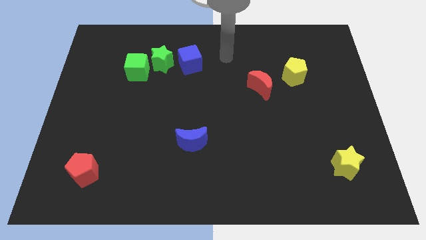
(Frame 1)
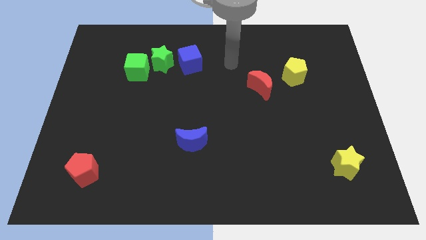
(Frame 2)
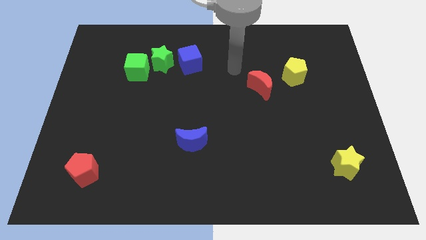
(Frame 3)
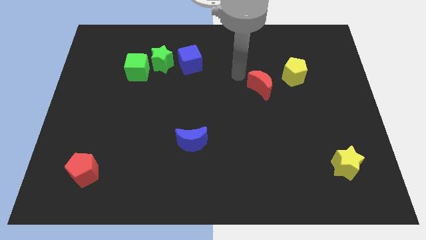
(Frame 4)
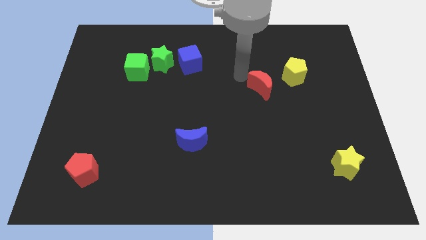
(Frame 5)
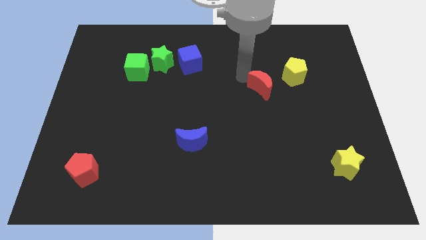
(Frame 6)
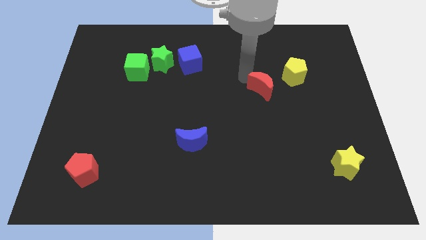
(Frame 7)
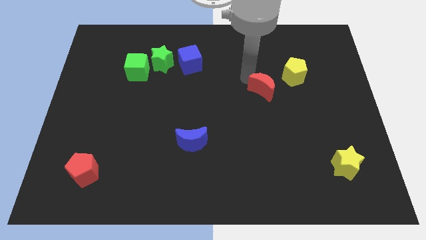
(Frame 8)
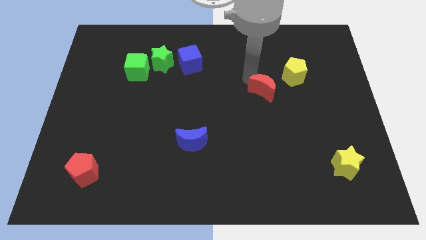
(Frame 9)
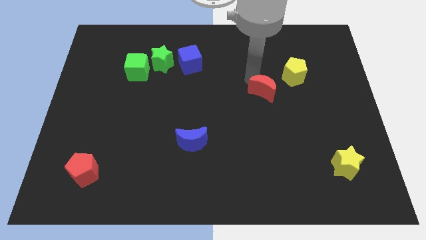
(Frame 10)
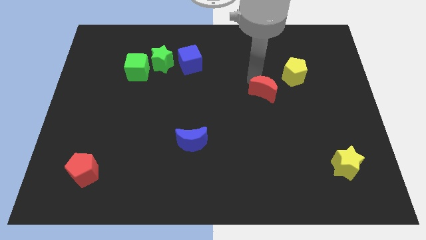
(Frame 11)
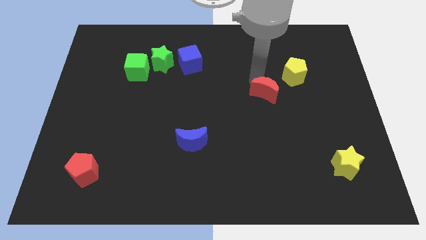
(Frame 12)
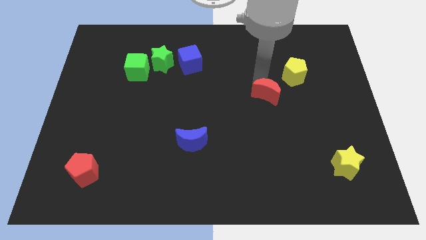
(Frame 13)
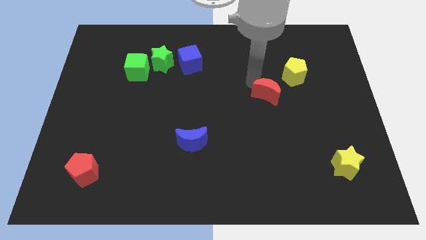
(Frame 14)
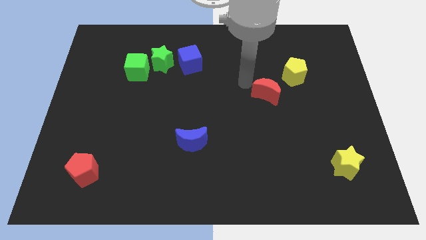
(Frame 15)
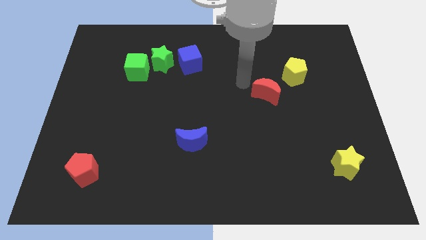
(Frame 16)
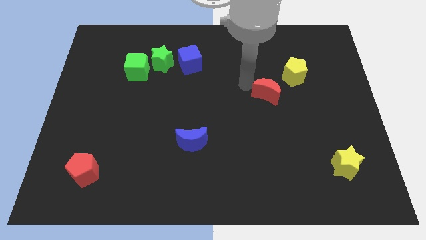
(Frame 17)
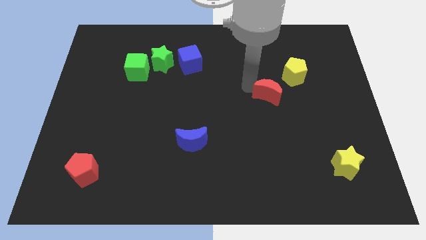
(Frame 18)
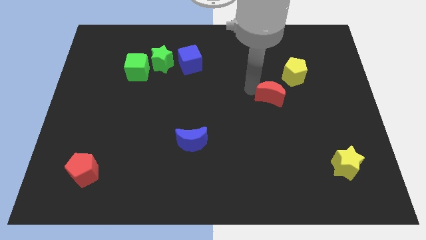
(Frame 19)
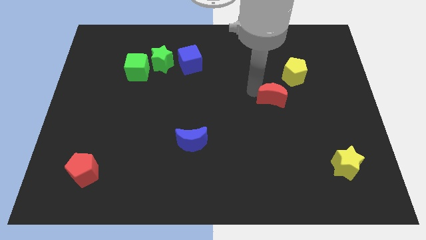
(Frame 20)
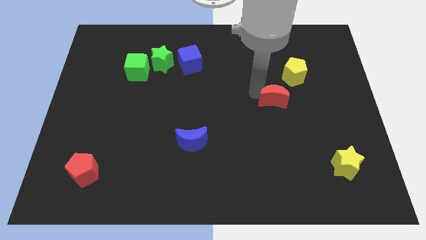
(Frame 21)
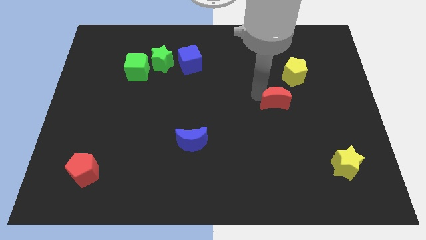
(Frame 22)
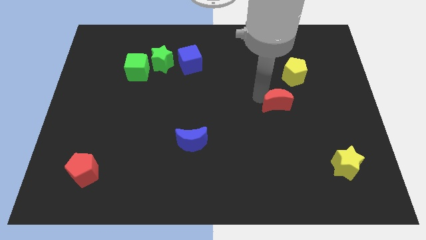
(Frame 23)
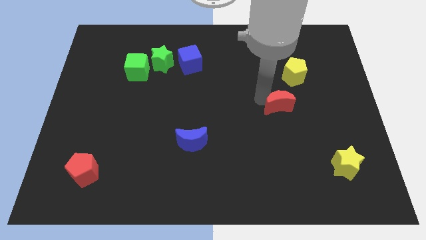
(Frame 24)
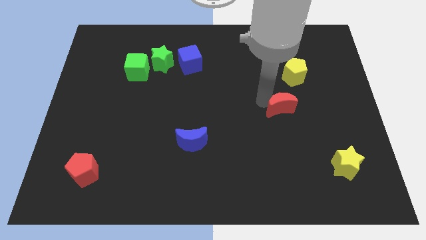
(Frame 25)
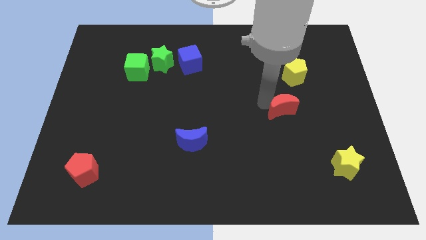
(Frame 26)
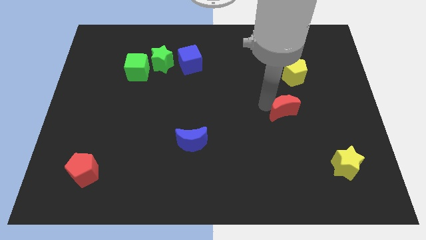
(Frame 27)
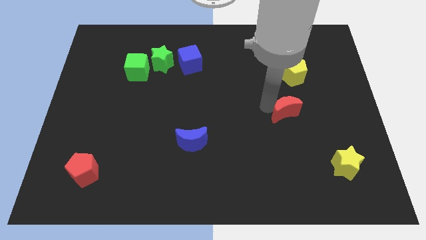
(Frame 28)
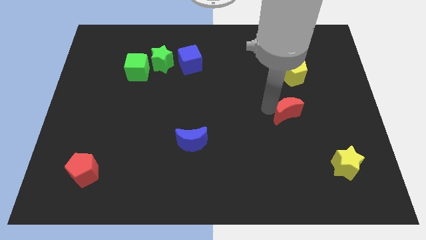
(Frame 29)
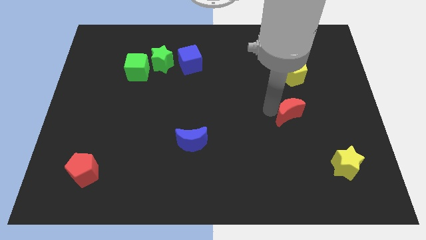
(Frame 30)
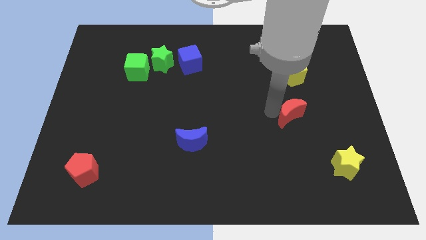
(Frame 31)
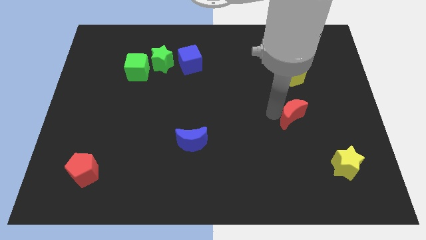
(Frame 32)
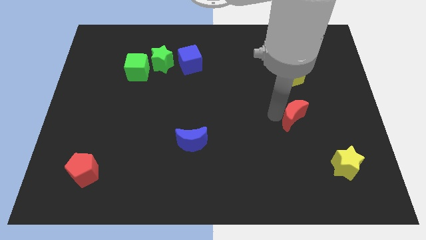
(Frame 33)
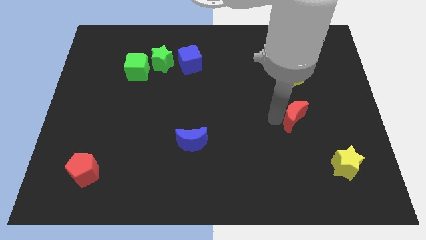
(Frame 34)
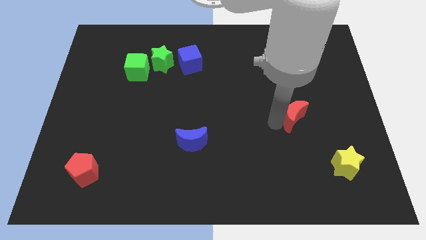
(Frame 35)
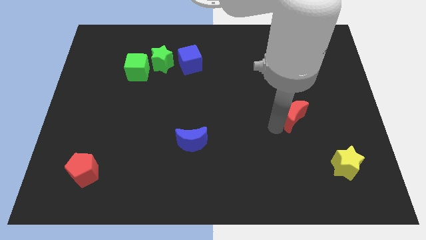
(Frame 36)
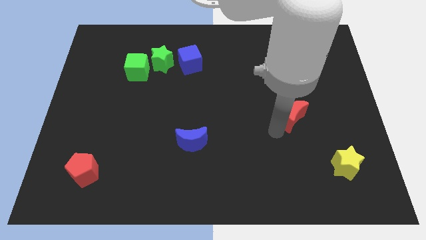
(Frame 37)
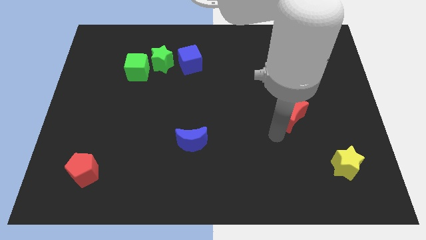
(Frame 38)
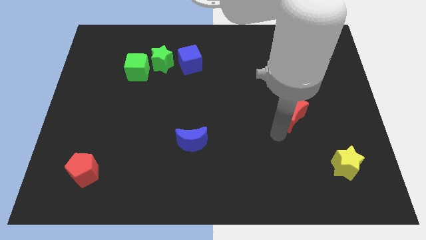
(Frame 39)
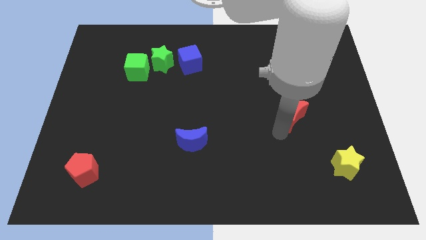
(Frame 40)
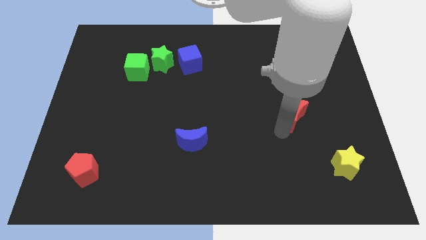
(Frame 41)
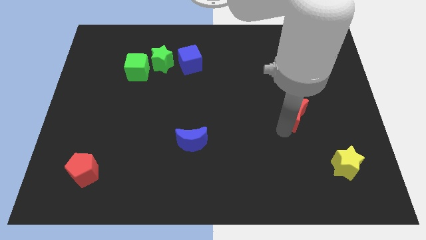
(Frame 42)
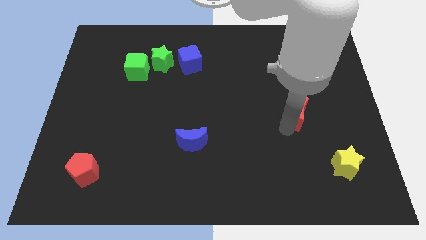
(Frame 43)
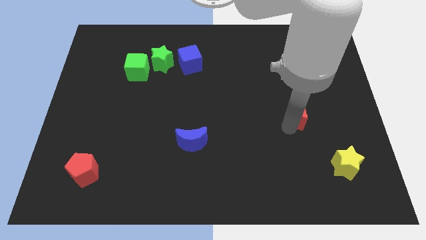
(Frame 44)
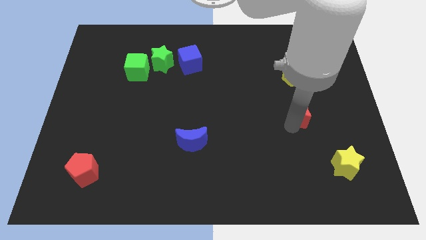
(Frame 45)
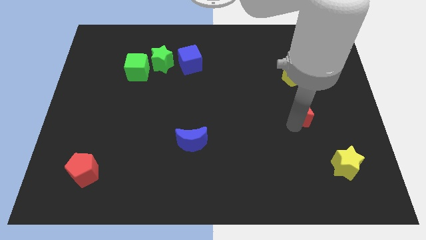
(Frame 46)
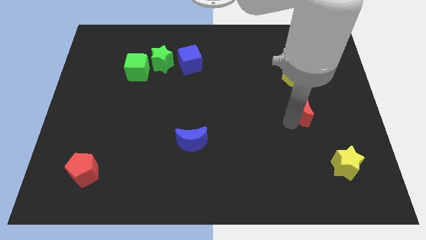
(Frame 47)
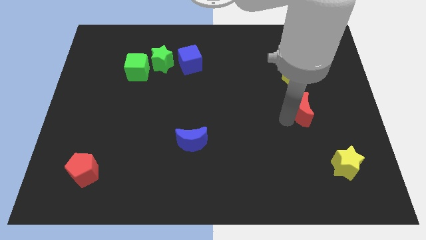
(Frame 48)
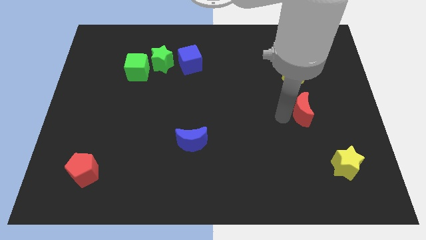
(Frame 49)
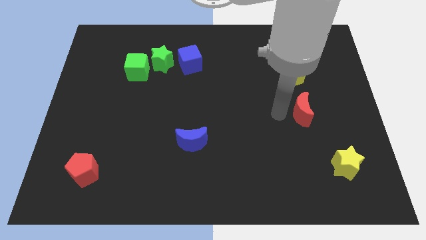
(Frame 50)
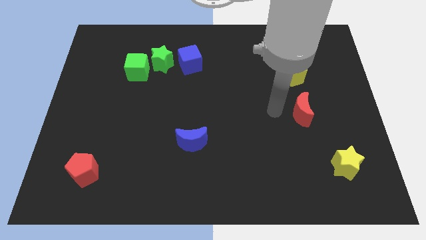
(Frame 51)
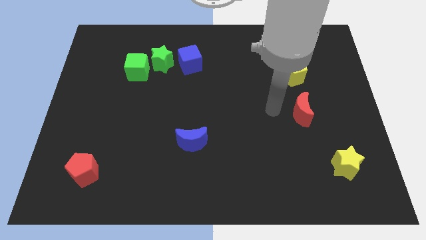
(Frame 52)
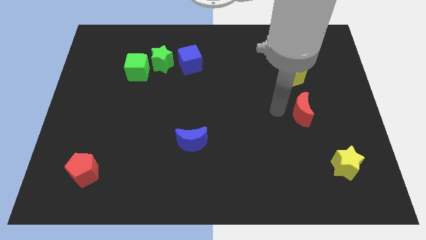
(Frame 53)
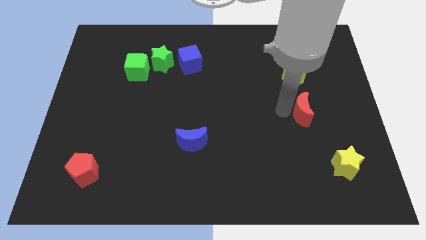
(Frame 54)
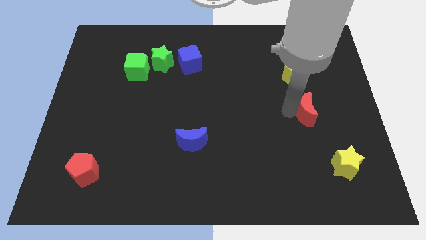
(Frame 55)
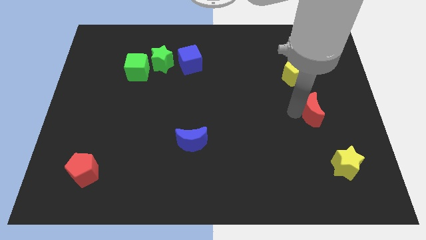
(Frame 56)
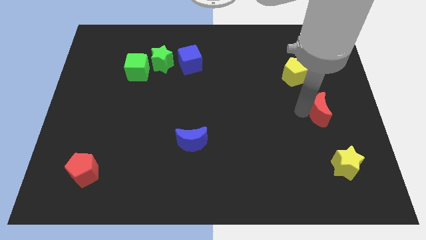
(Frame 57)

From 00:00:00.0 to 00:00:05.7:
push the red moon above the yellow star

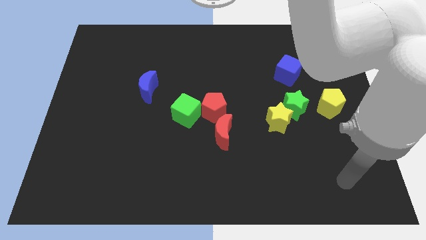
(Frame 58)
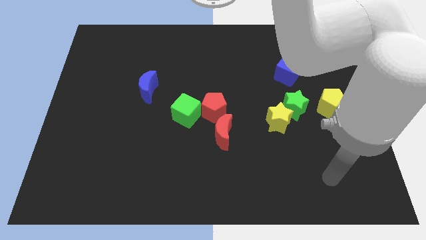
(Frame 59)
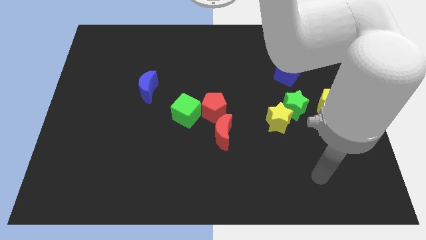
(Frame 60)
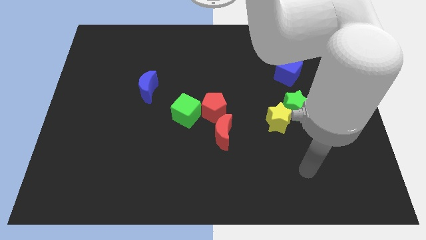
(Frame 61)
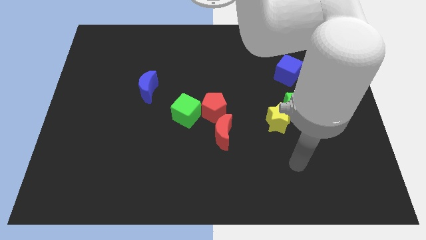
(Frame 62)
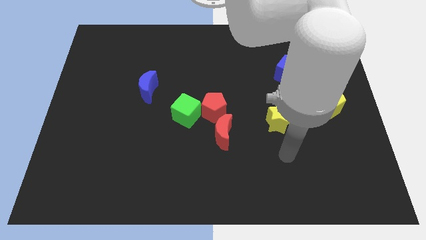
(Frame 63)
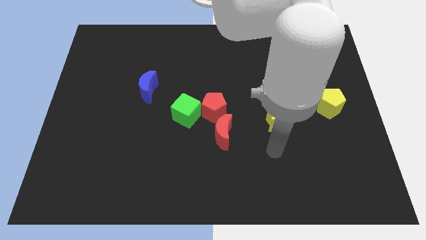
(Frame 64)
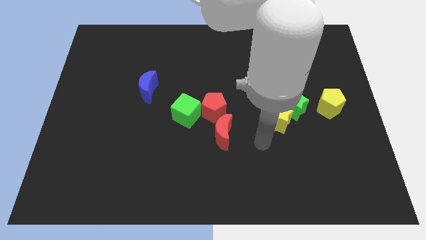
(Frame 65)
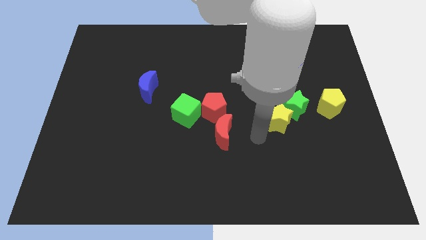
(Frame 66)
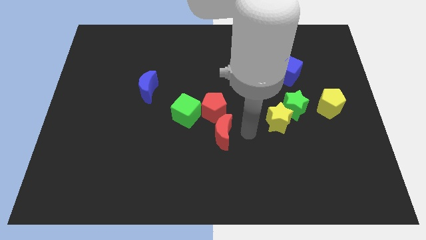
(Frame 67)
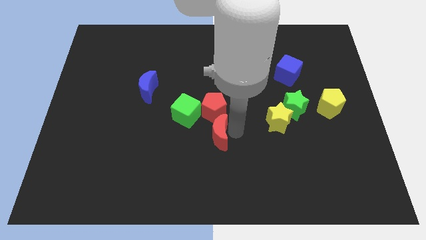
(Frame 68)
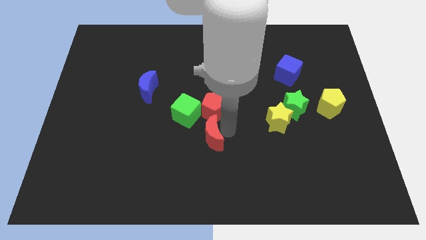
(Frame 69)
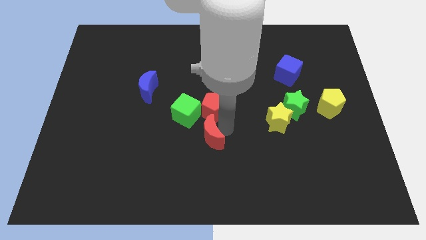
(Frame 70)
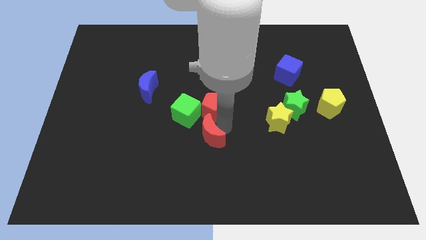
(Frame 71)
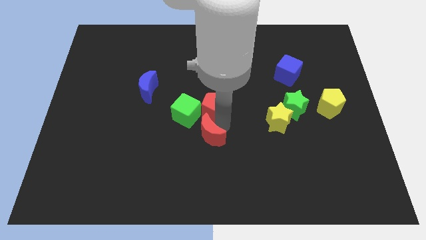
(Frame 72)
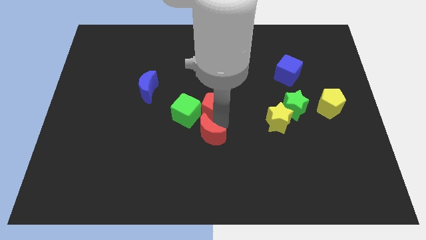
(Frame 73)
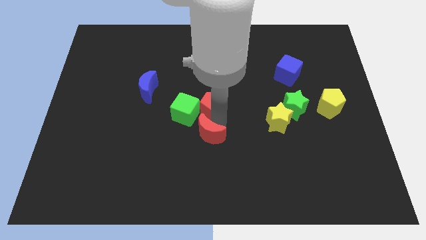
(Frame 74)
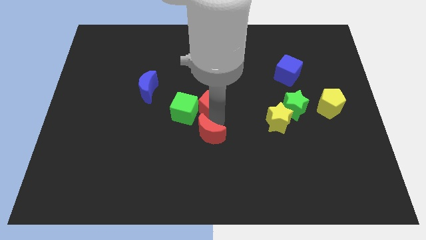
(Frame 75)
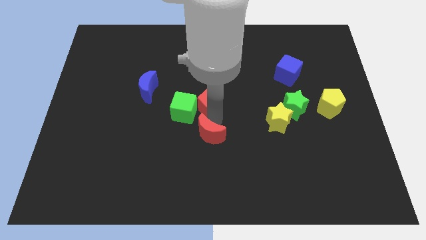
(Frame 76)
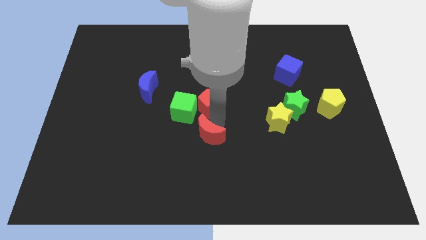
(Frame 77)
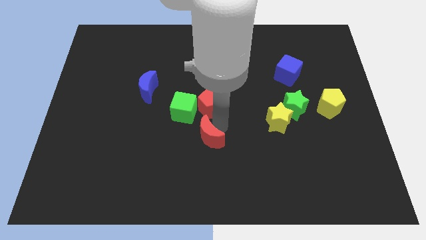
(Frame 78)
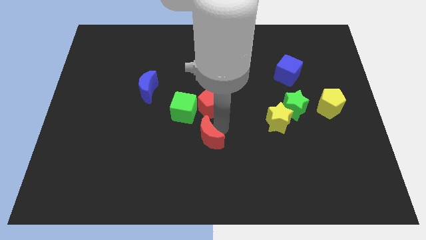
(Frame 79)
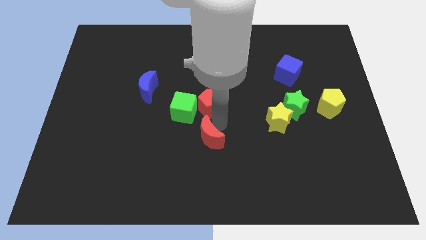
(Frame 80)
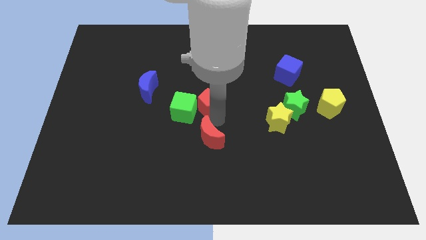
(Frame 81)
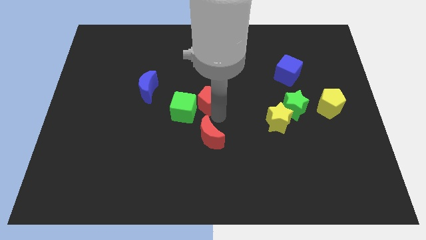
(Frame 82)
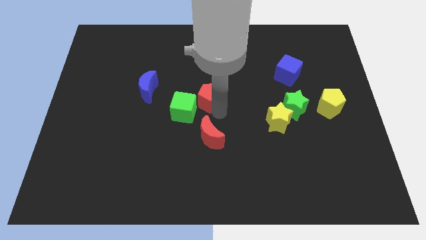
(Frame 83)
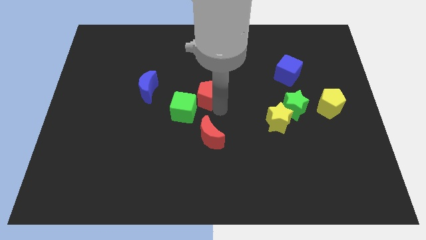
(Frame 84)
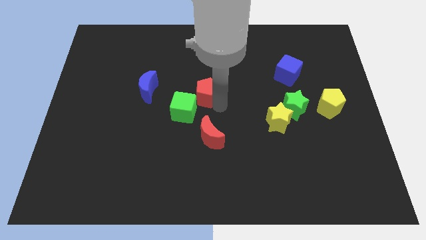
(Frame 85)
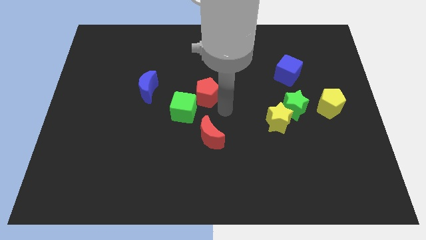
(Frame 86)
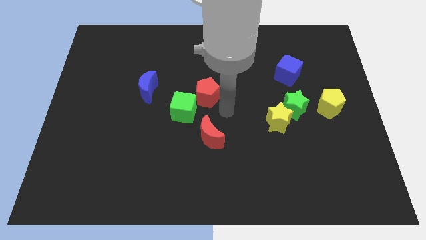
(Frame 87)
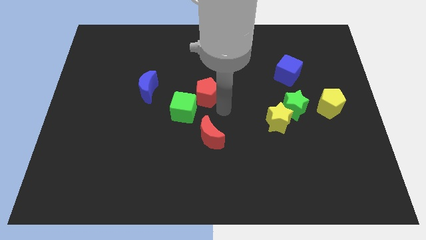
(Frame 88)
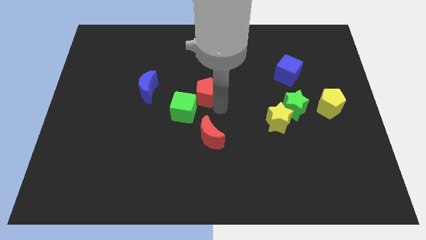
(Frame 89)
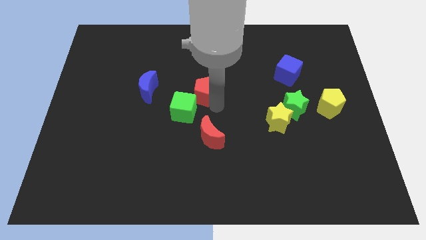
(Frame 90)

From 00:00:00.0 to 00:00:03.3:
put the red pentagon above the green cube
